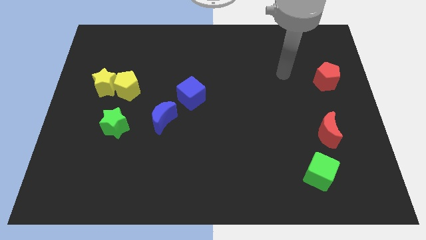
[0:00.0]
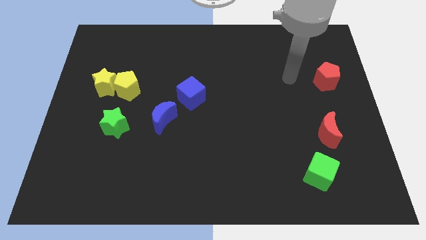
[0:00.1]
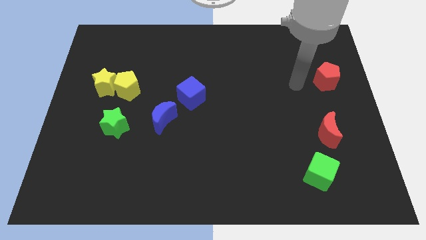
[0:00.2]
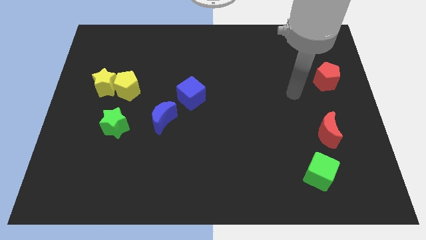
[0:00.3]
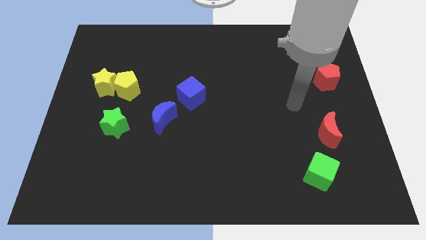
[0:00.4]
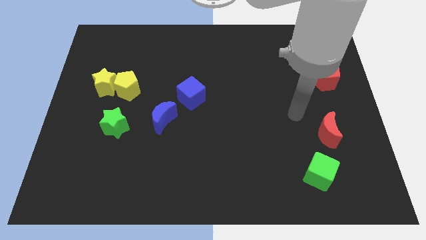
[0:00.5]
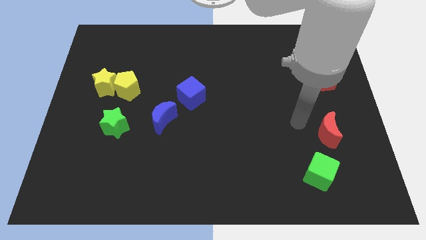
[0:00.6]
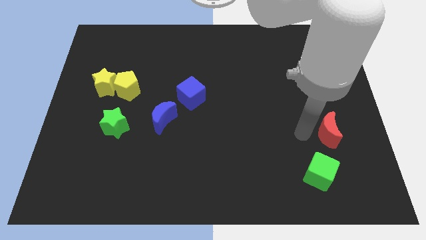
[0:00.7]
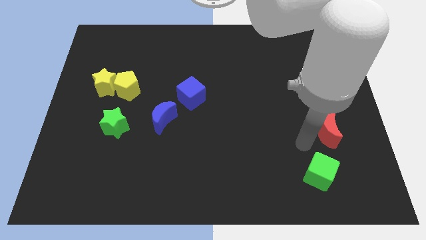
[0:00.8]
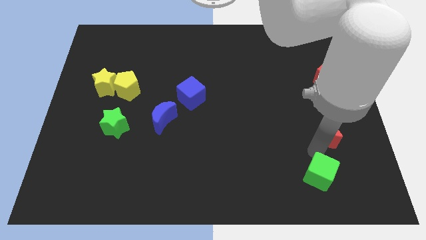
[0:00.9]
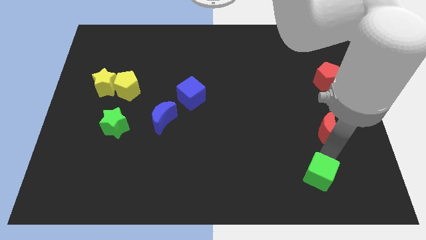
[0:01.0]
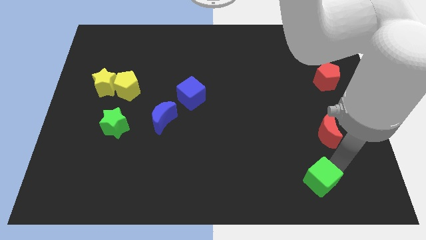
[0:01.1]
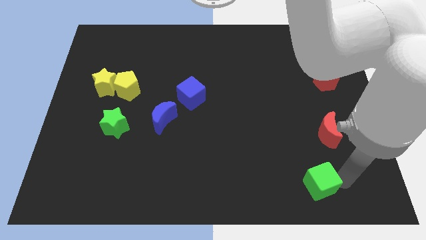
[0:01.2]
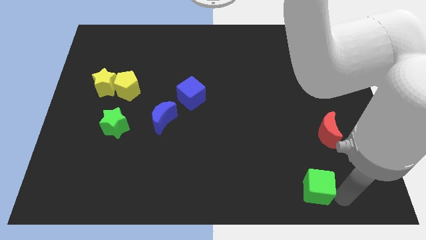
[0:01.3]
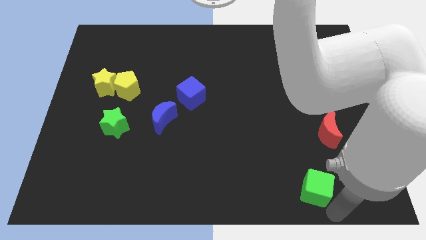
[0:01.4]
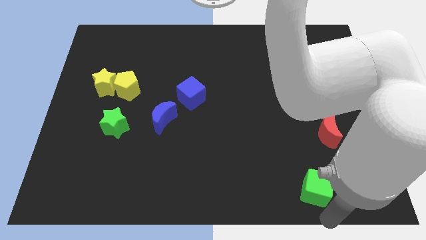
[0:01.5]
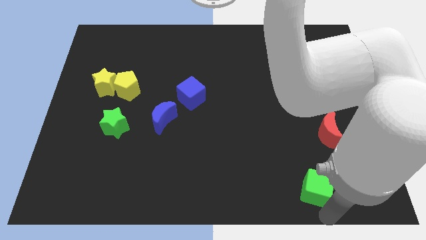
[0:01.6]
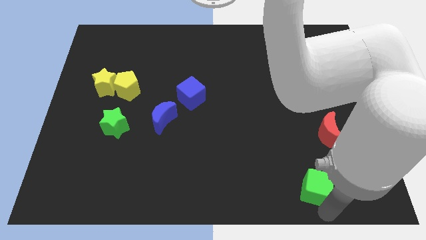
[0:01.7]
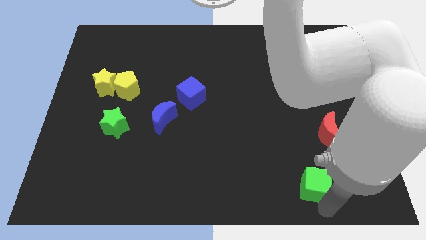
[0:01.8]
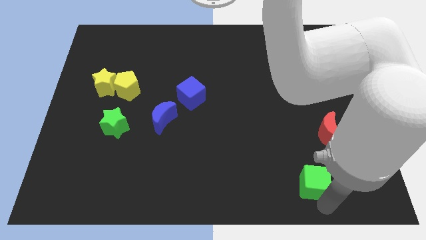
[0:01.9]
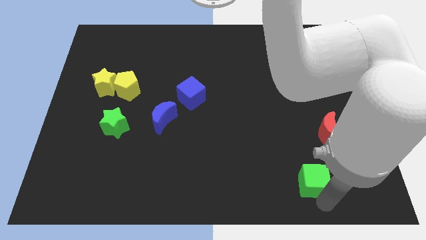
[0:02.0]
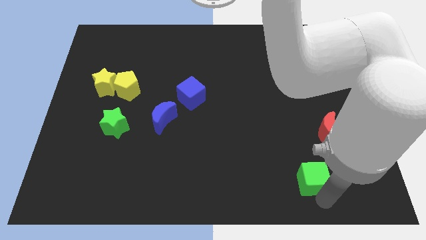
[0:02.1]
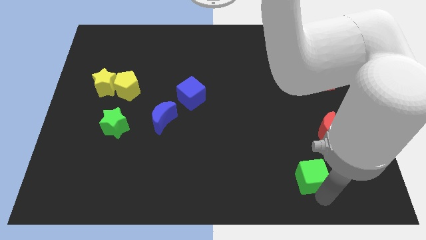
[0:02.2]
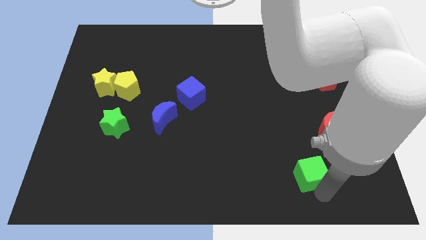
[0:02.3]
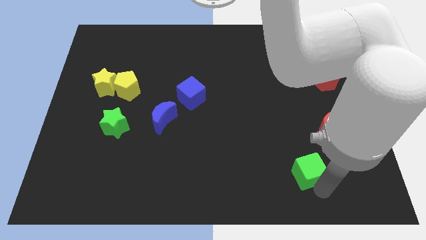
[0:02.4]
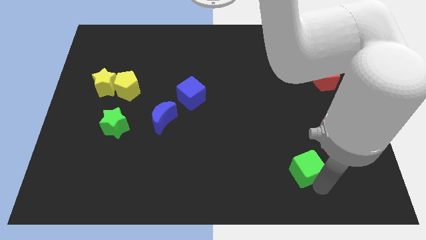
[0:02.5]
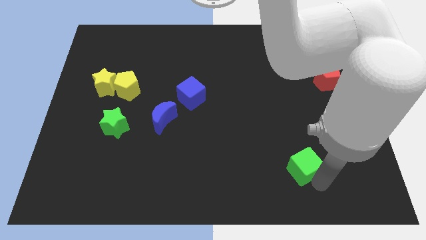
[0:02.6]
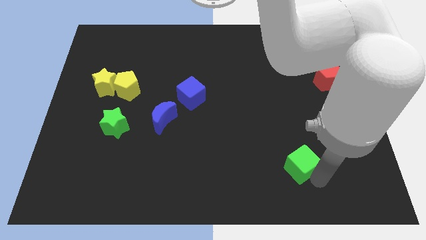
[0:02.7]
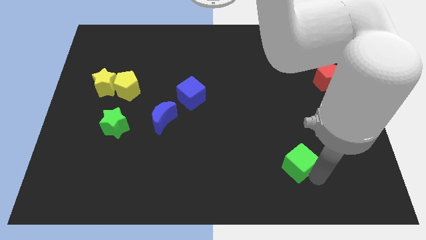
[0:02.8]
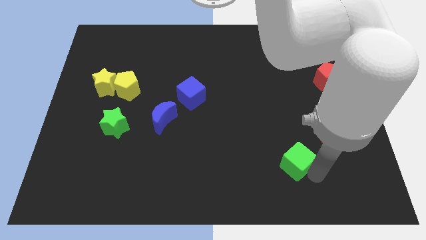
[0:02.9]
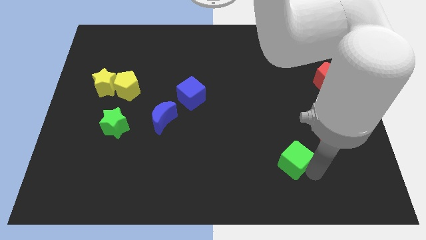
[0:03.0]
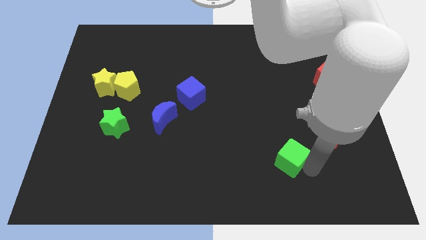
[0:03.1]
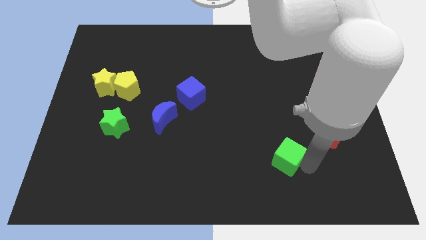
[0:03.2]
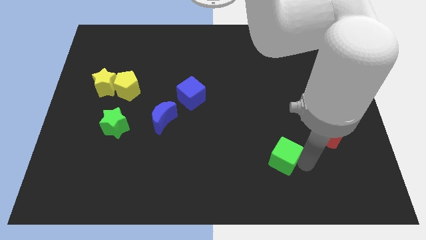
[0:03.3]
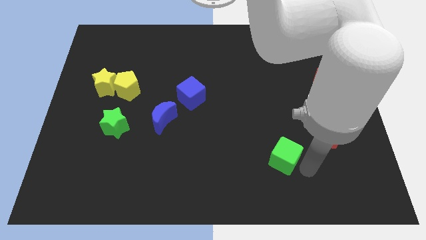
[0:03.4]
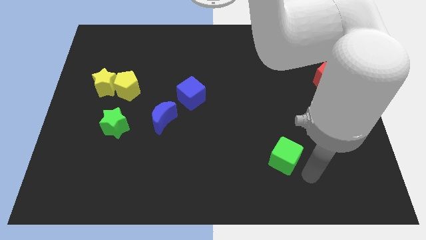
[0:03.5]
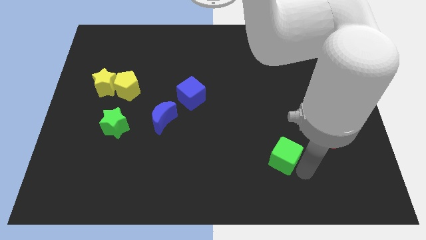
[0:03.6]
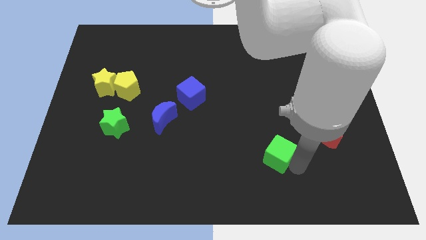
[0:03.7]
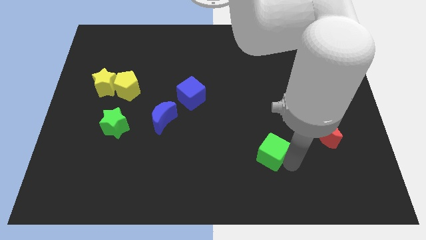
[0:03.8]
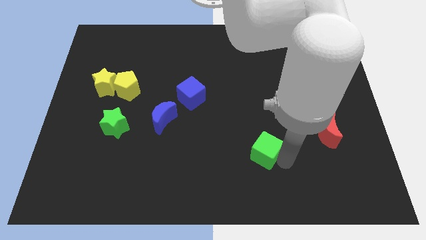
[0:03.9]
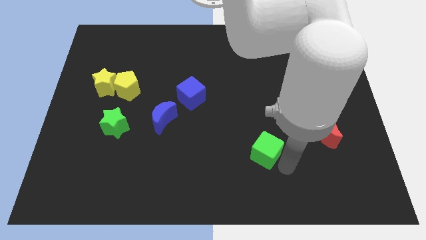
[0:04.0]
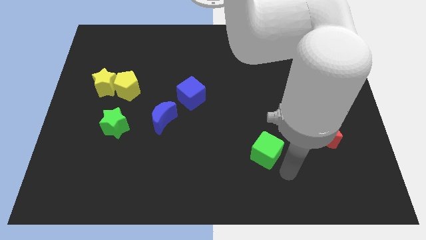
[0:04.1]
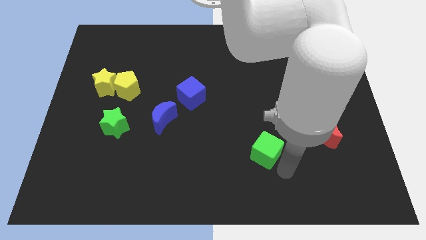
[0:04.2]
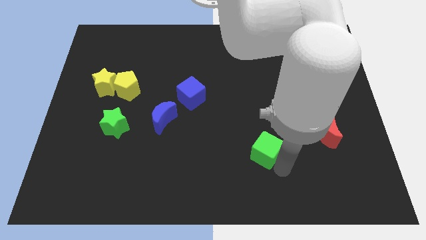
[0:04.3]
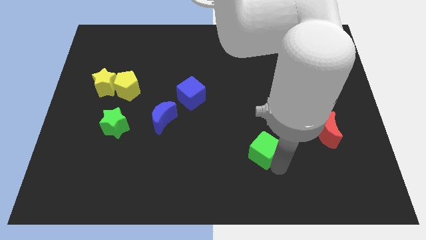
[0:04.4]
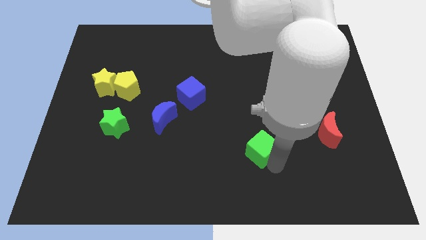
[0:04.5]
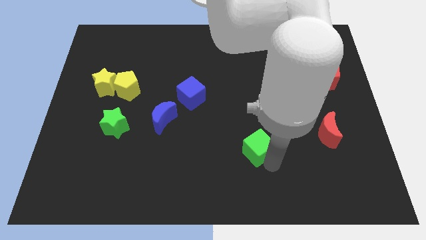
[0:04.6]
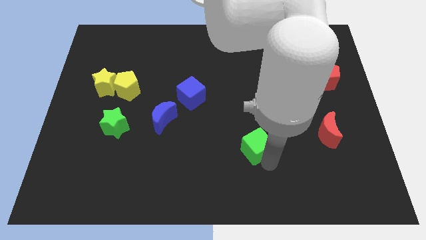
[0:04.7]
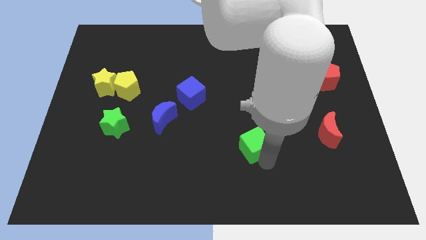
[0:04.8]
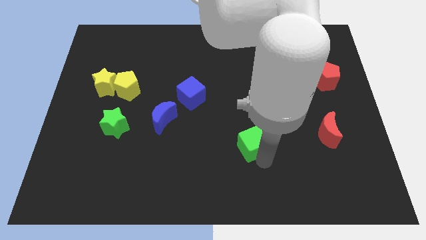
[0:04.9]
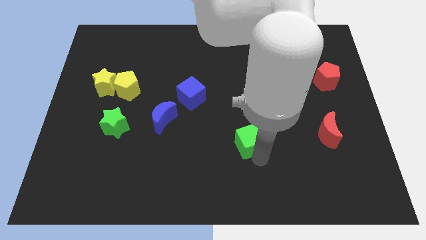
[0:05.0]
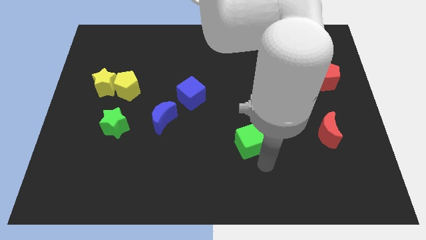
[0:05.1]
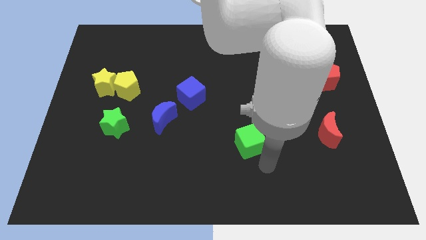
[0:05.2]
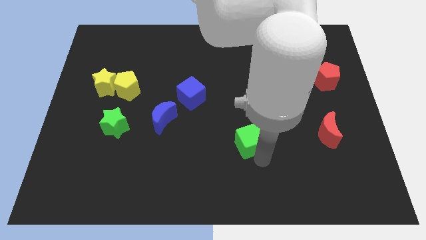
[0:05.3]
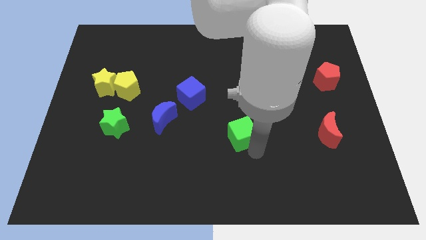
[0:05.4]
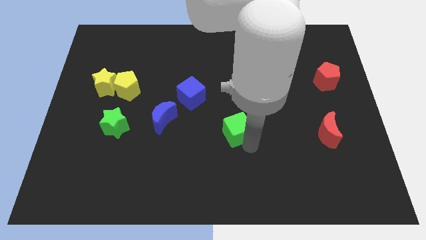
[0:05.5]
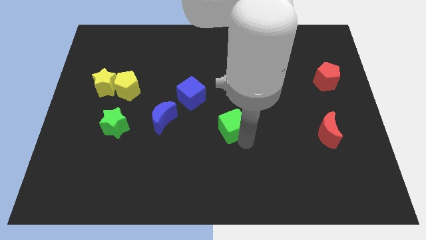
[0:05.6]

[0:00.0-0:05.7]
slide the green cube up and then left

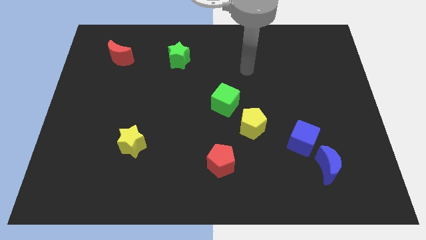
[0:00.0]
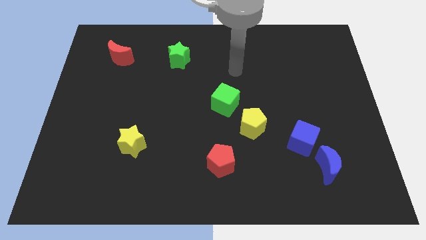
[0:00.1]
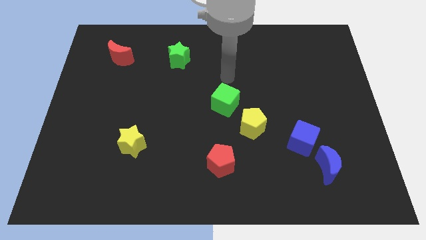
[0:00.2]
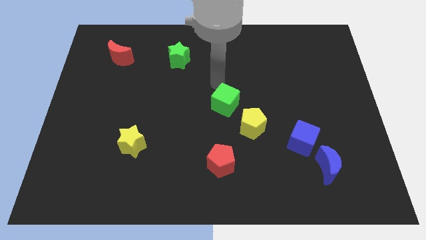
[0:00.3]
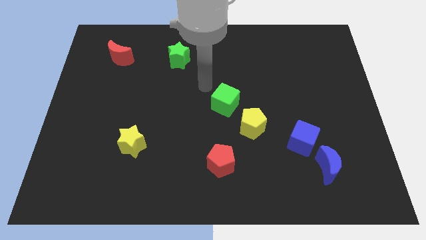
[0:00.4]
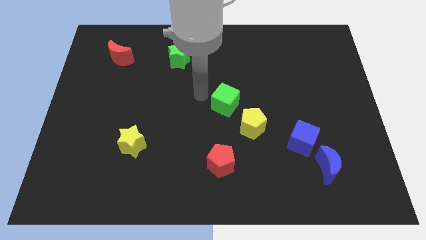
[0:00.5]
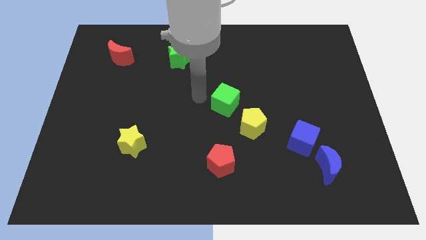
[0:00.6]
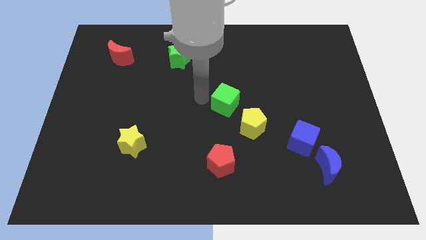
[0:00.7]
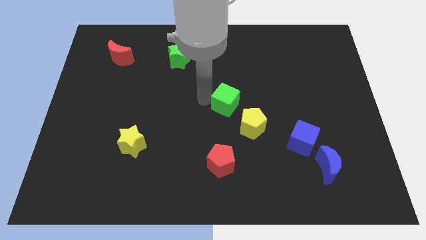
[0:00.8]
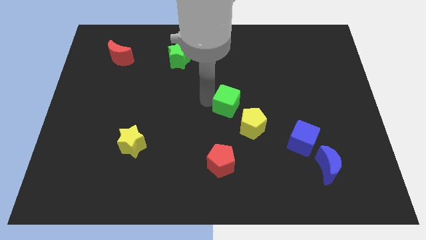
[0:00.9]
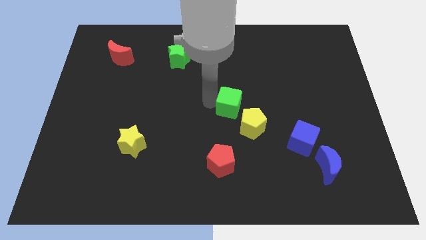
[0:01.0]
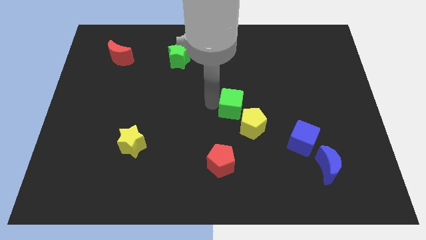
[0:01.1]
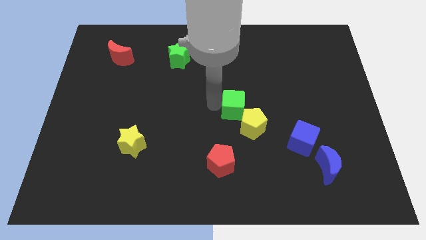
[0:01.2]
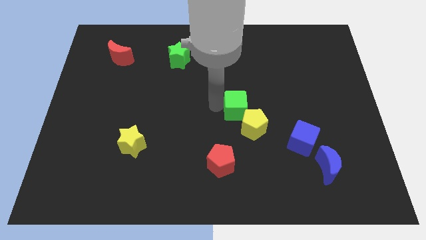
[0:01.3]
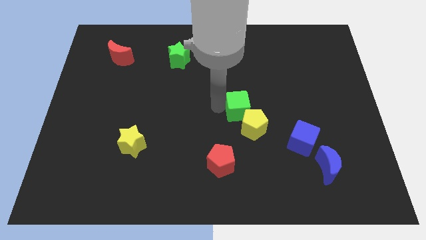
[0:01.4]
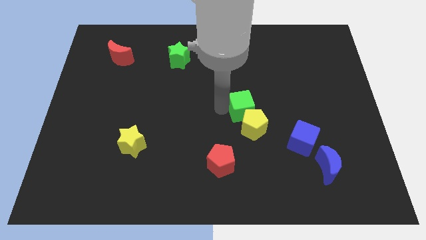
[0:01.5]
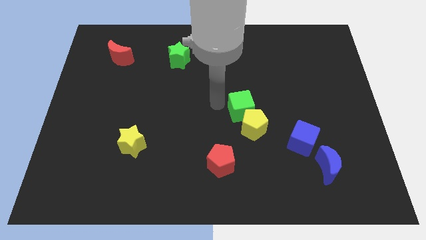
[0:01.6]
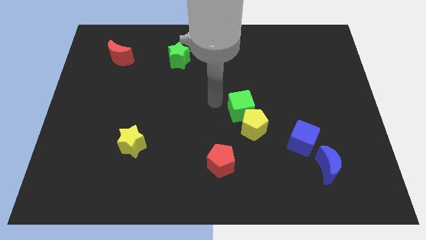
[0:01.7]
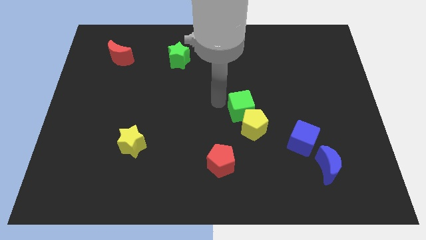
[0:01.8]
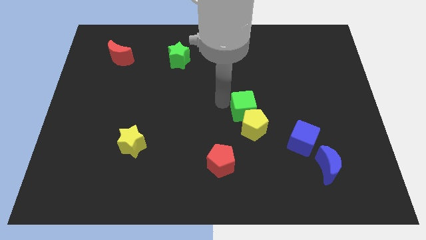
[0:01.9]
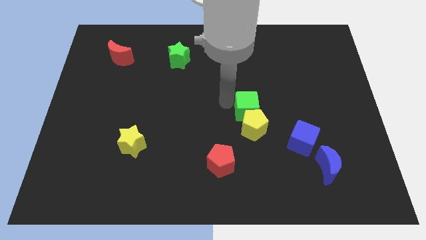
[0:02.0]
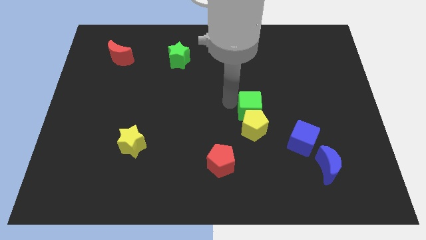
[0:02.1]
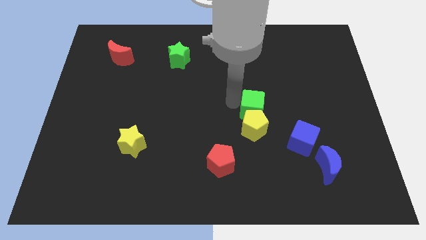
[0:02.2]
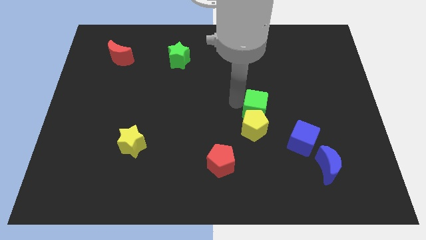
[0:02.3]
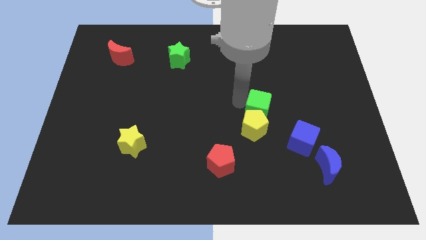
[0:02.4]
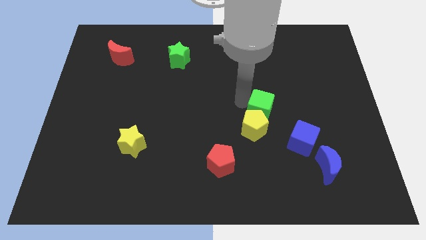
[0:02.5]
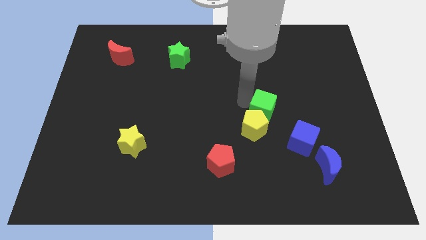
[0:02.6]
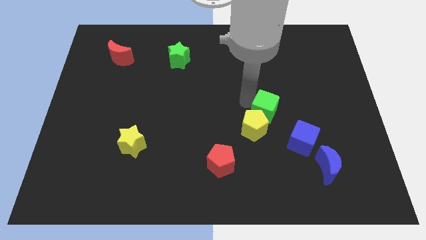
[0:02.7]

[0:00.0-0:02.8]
slightly move the green cube down and to the right
